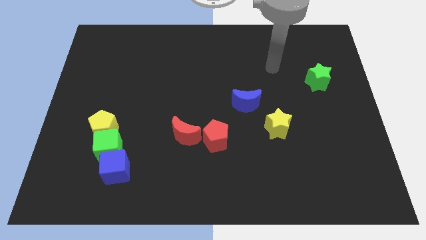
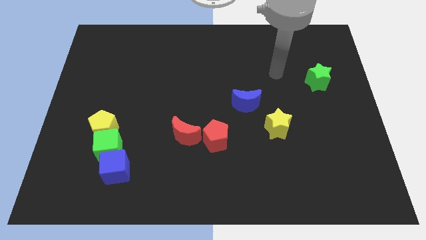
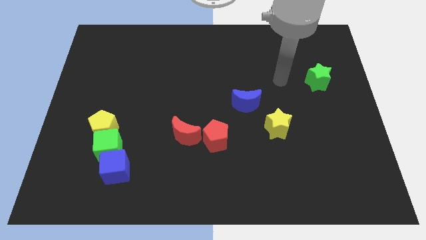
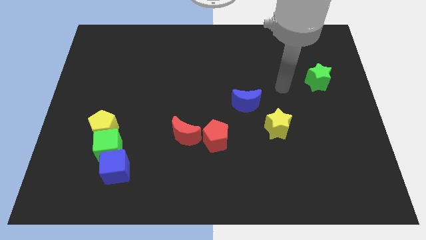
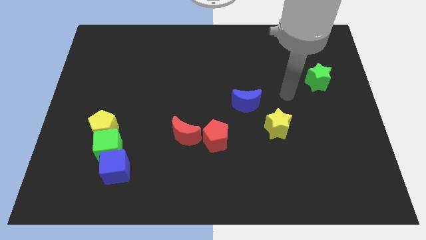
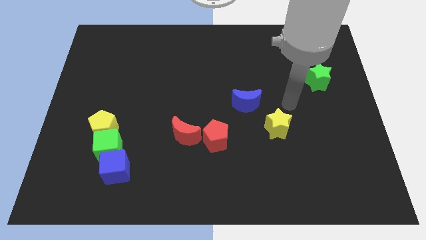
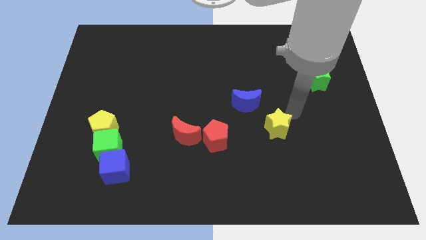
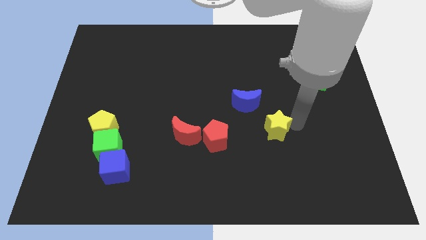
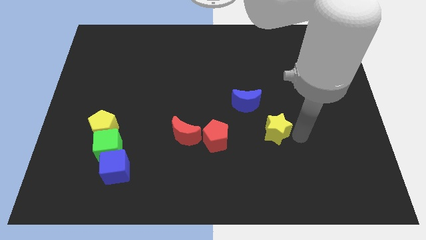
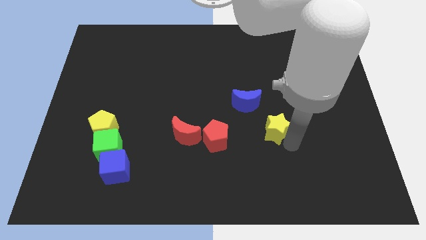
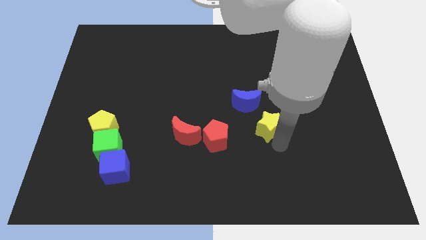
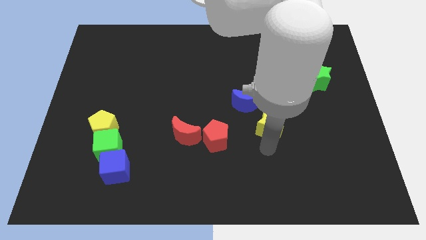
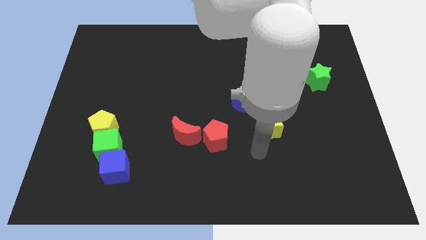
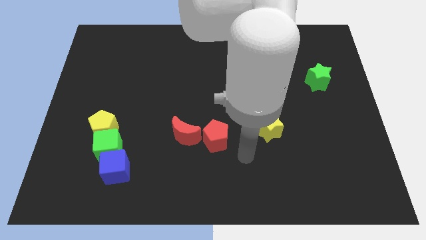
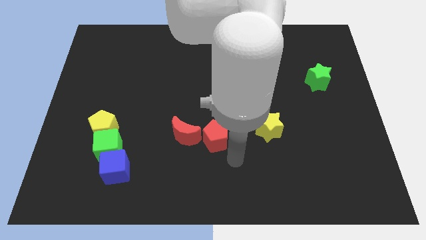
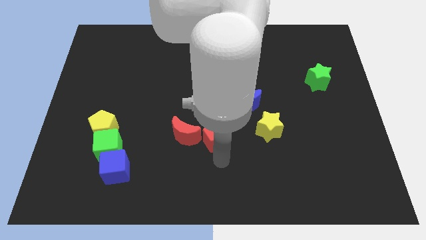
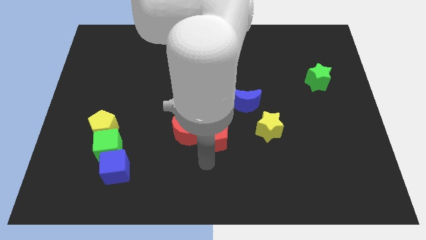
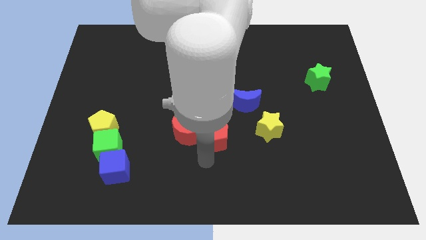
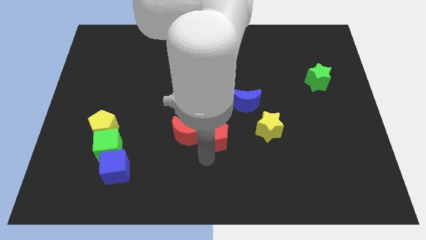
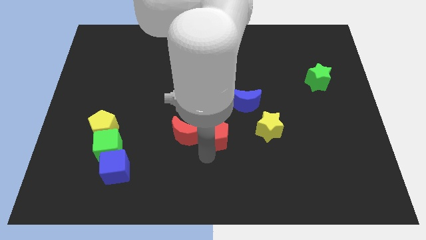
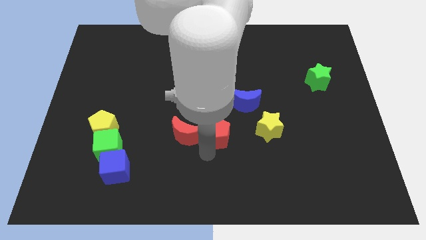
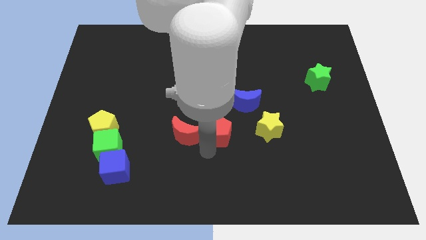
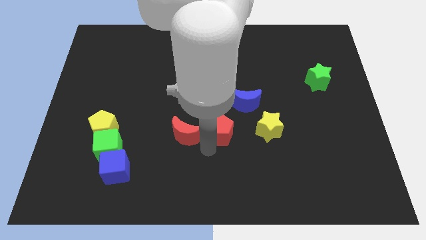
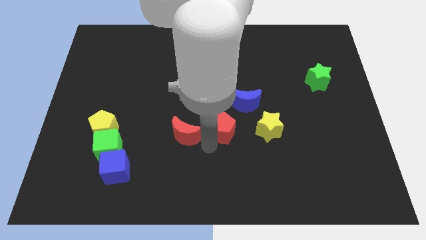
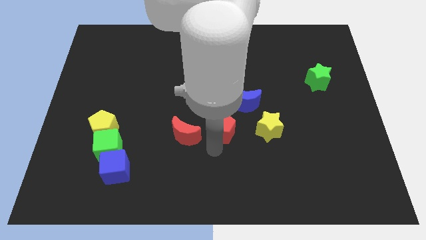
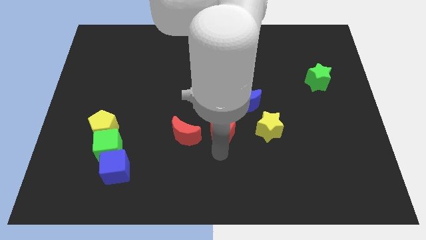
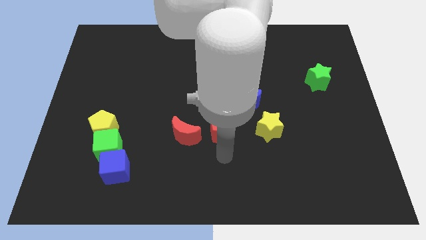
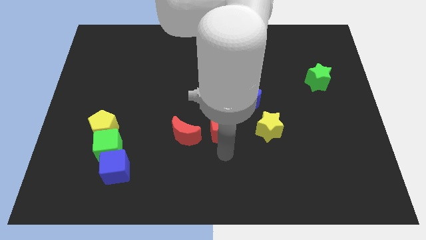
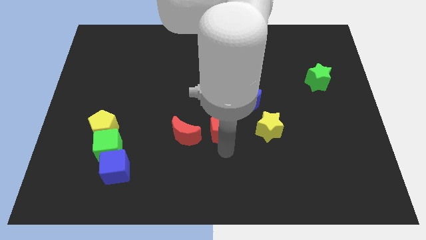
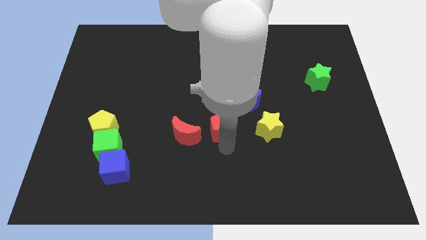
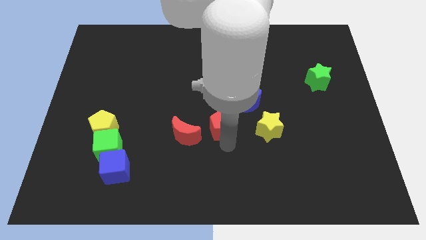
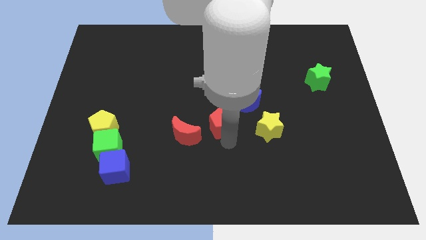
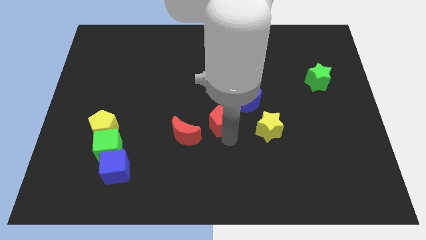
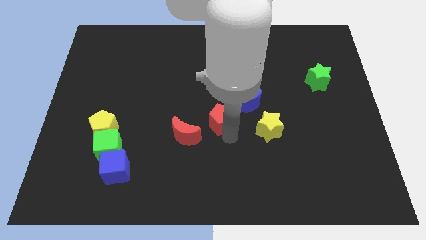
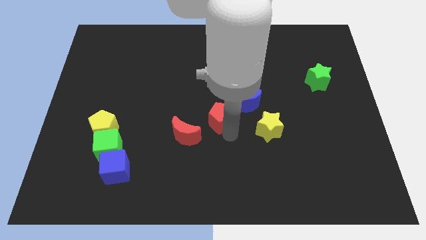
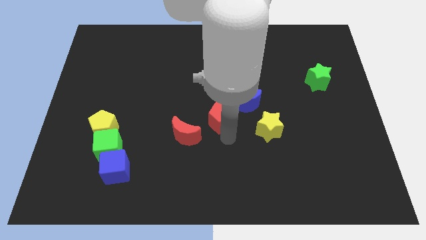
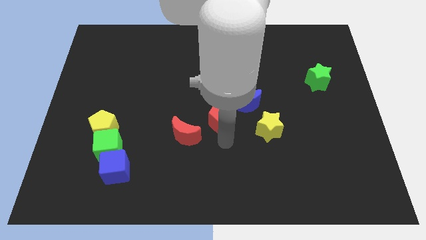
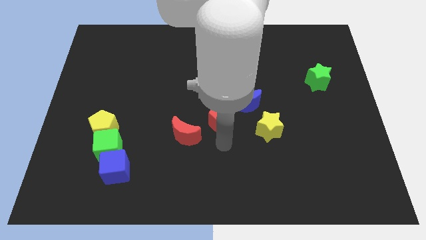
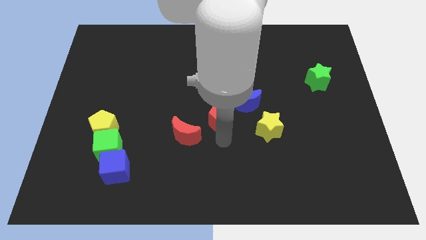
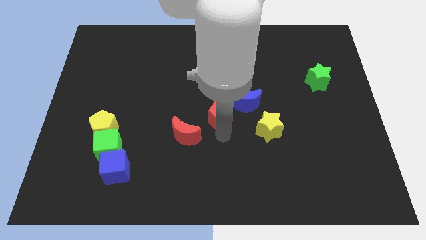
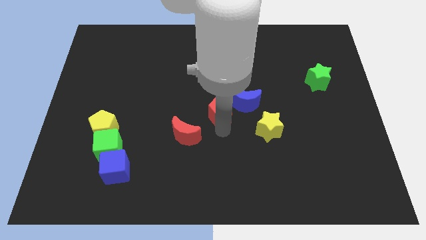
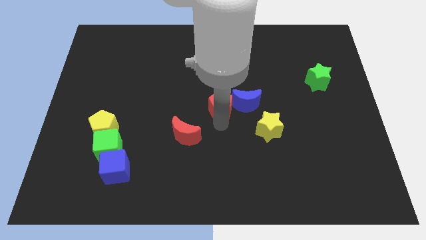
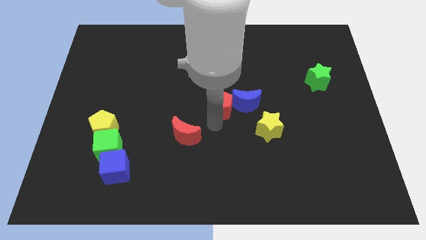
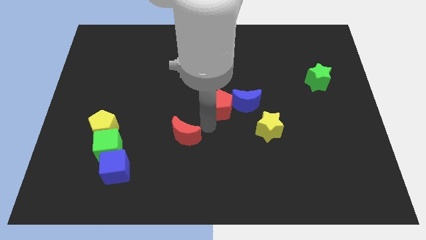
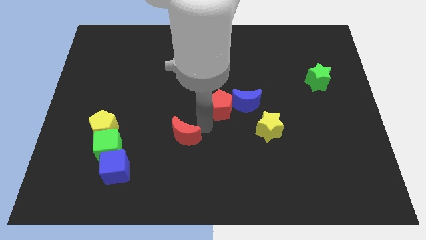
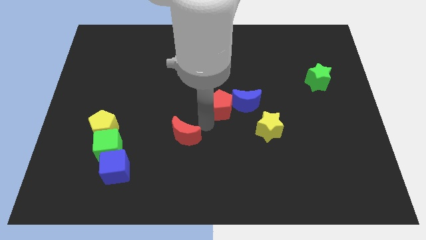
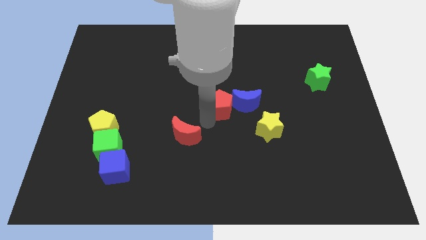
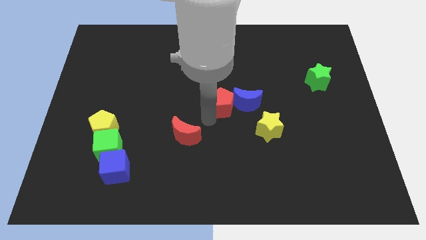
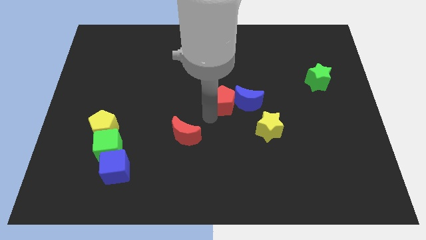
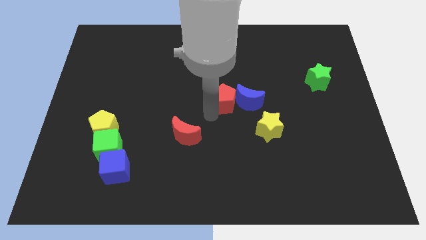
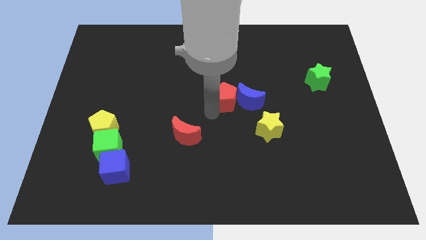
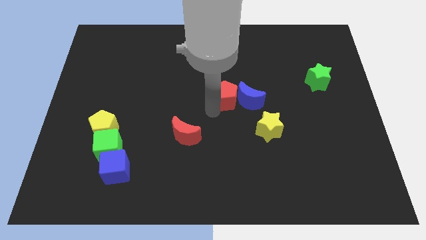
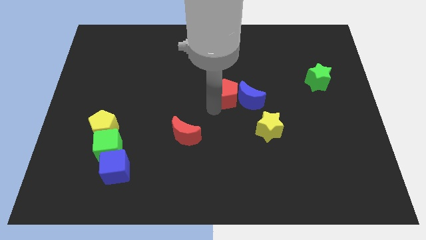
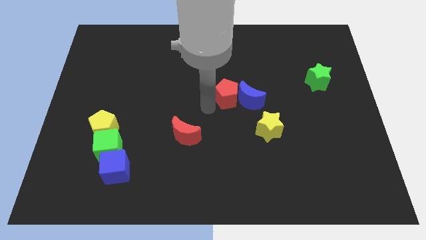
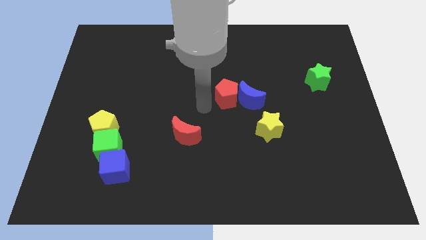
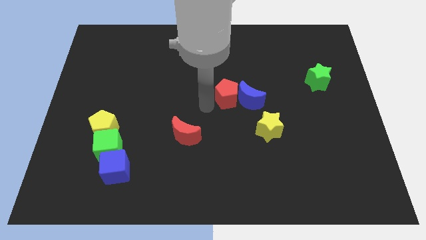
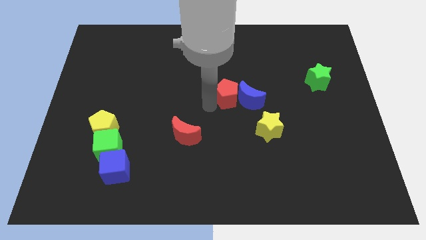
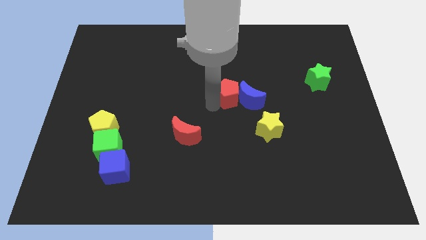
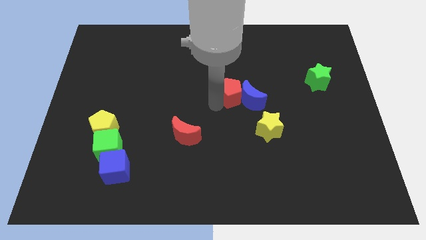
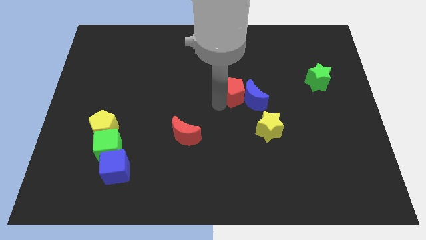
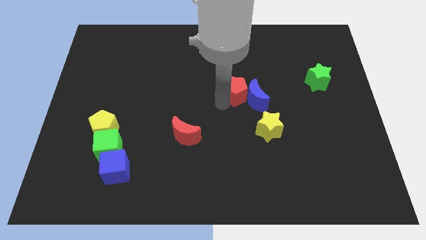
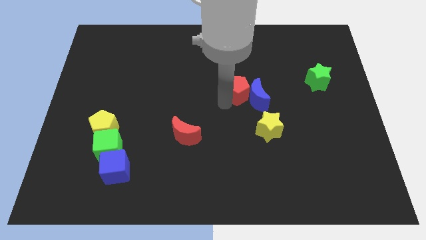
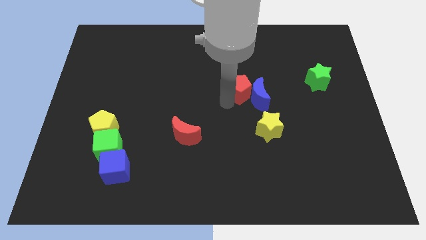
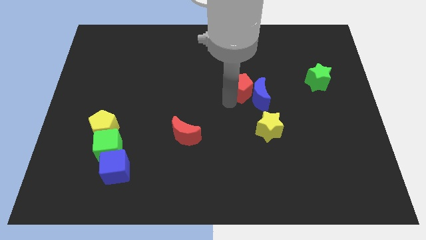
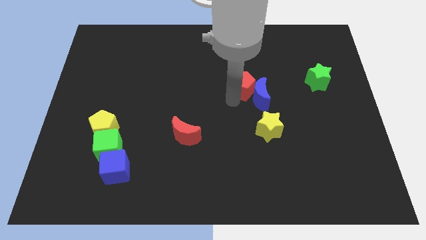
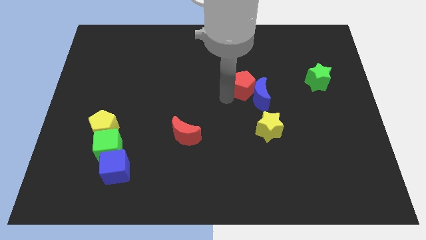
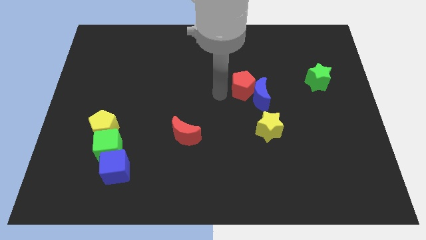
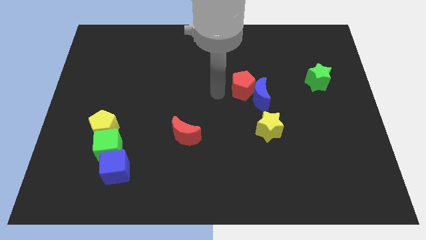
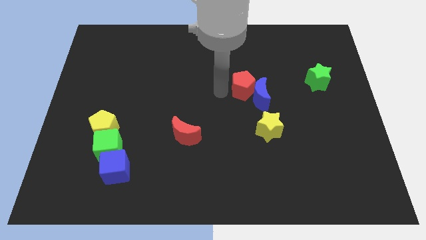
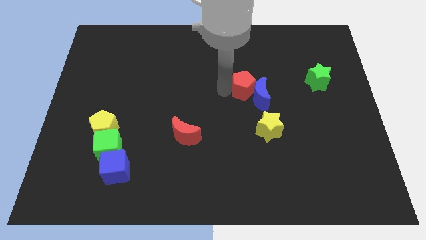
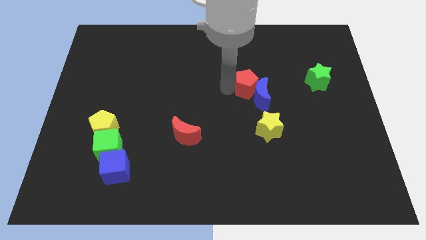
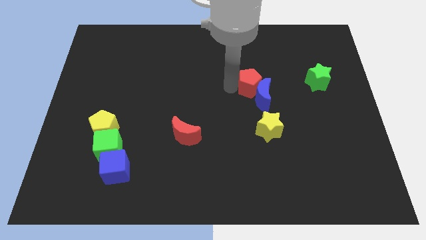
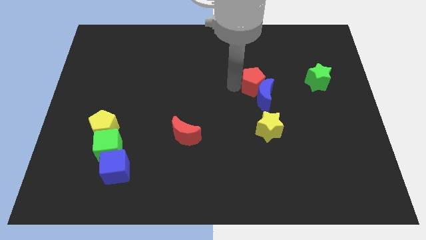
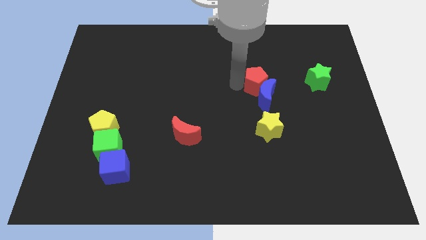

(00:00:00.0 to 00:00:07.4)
move the red pentagon diagonally up and to the right of the blue moon

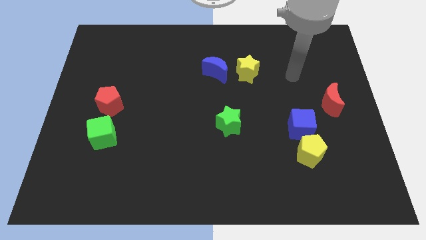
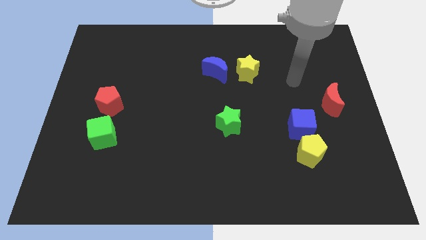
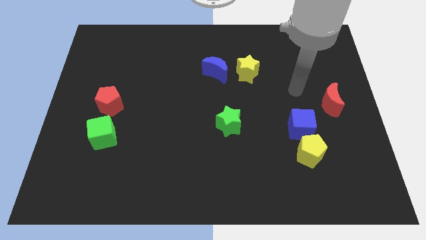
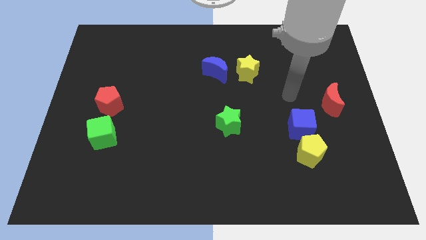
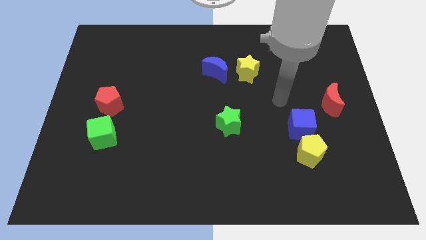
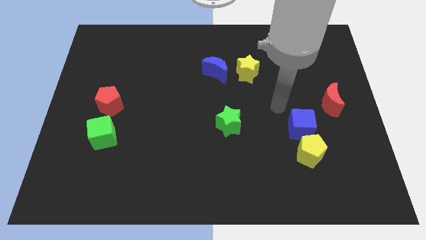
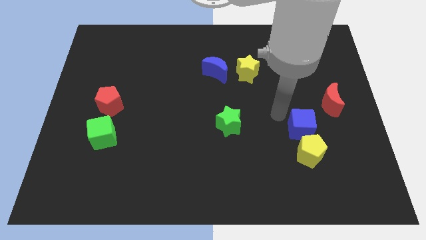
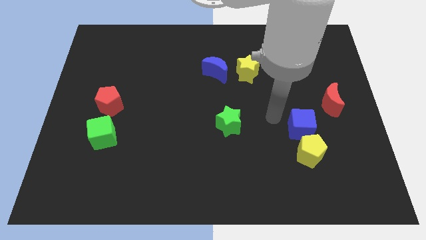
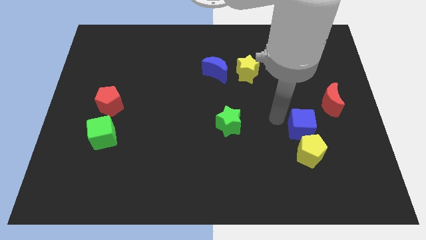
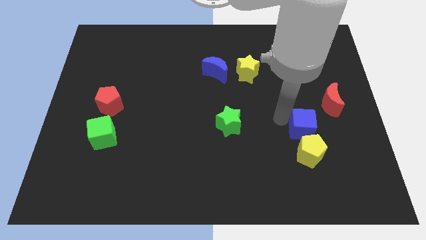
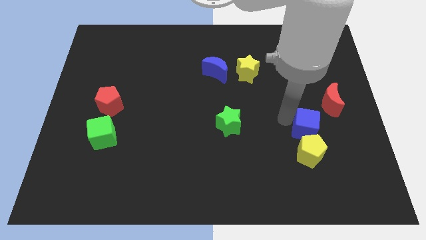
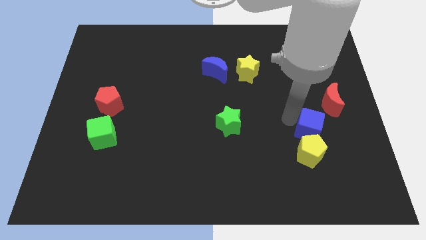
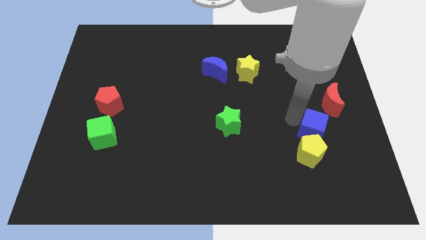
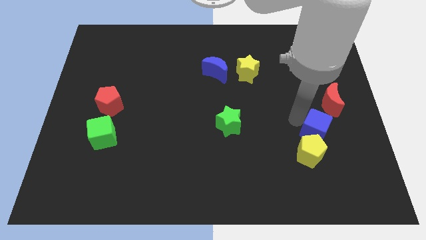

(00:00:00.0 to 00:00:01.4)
slide the blue cube below the red moon
